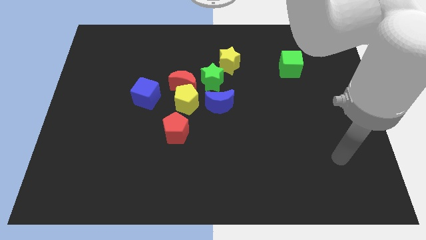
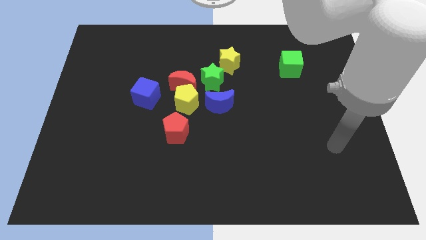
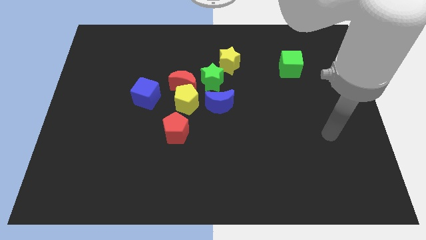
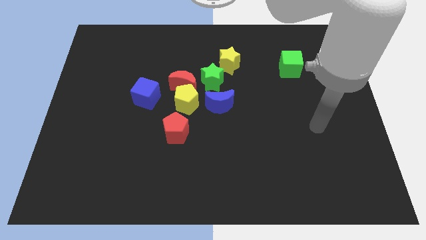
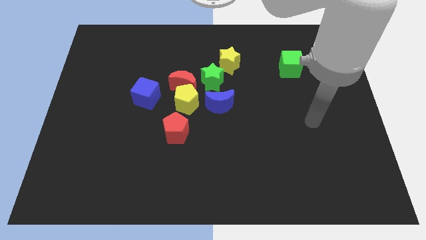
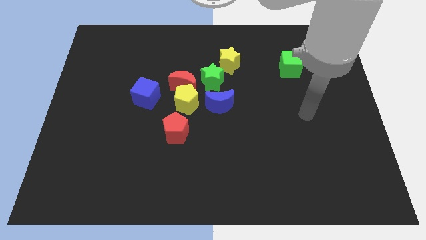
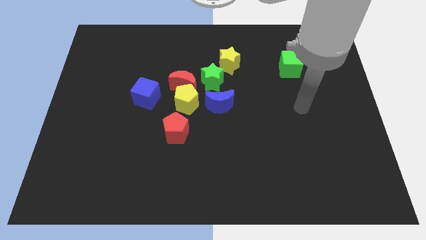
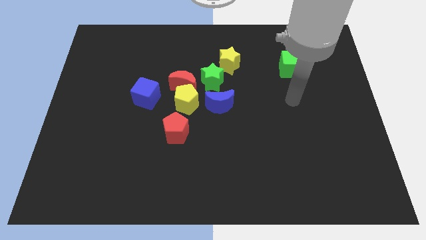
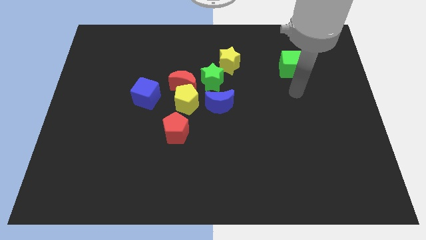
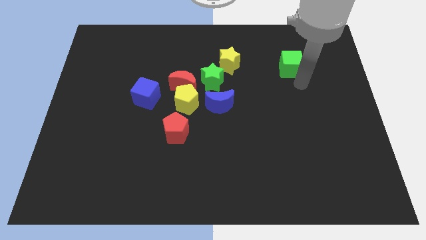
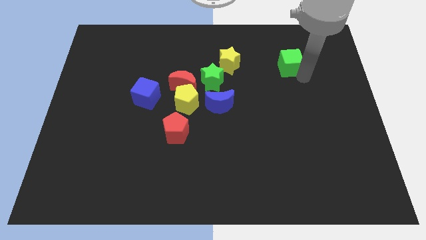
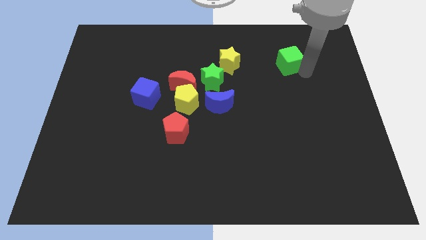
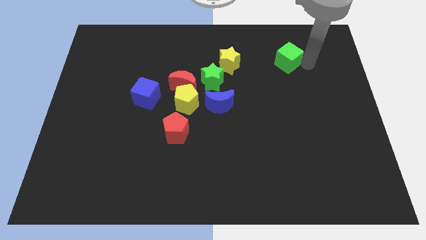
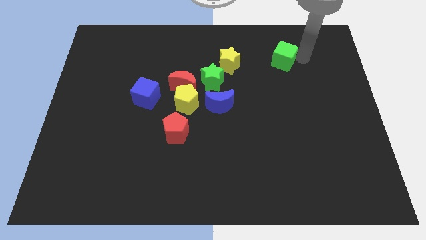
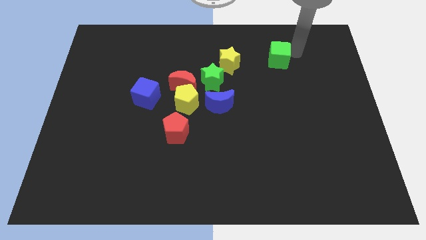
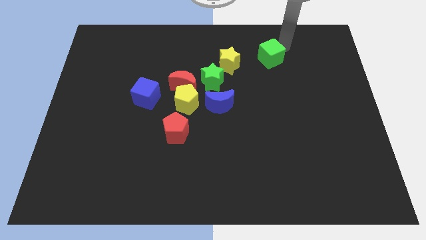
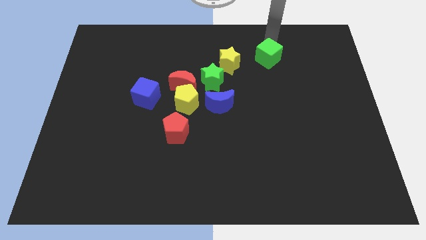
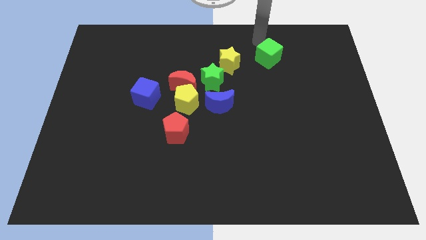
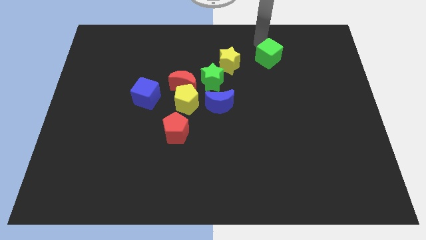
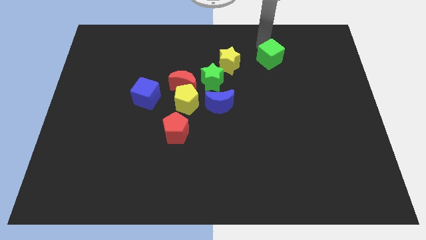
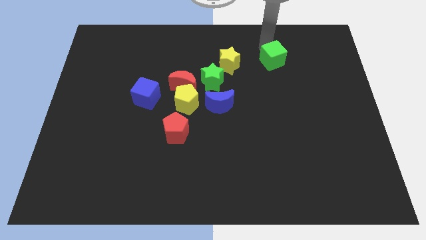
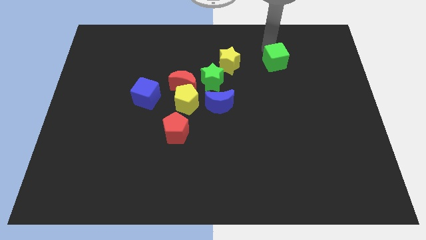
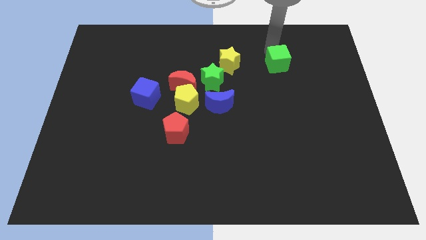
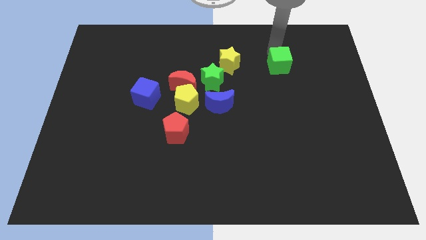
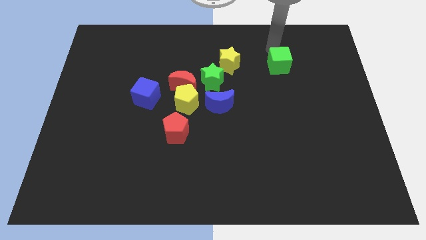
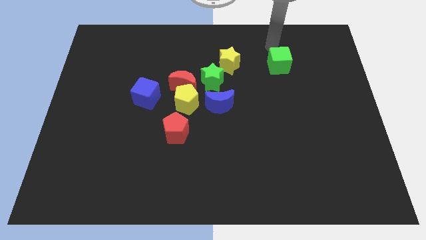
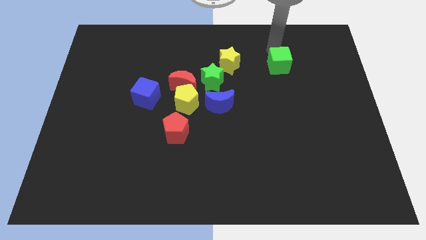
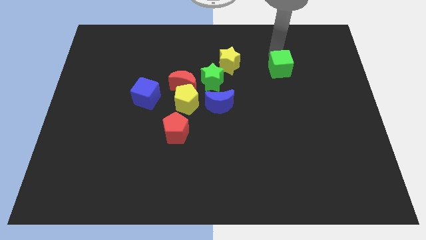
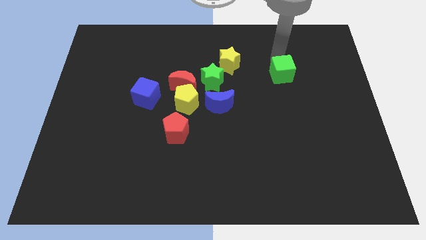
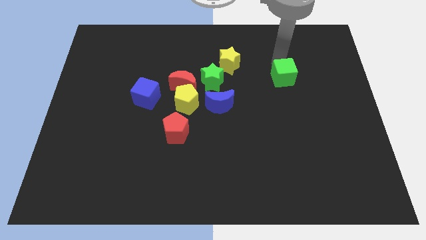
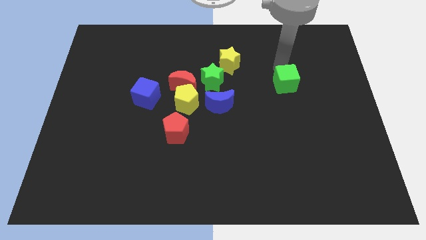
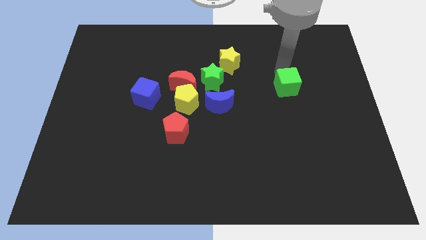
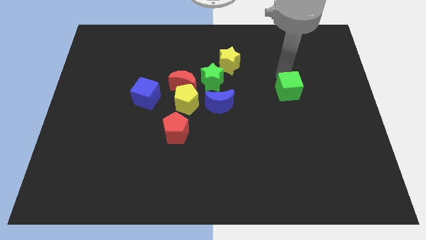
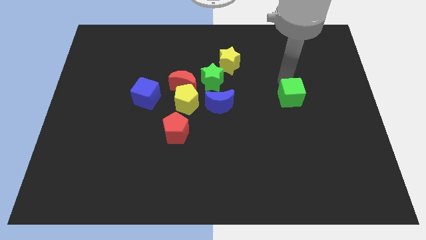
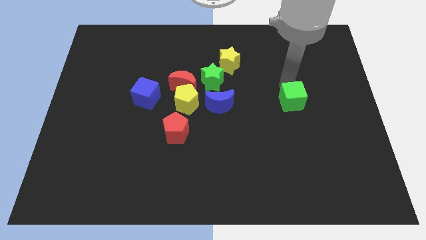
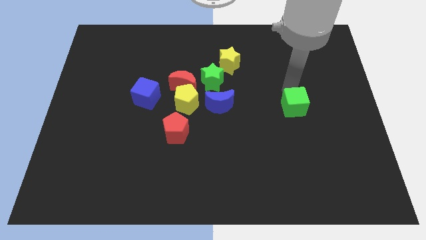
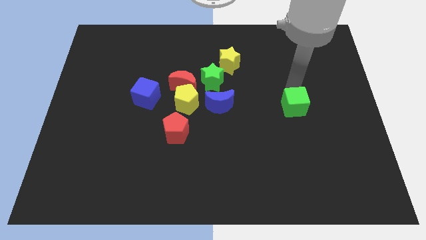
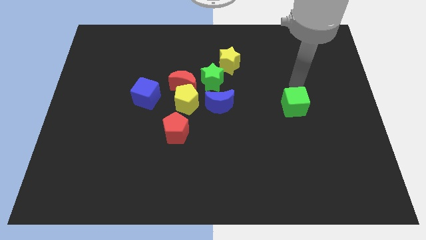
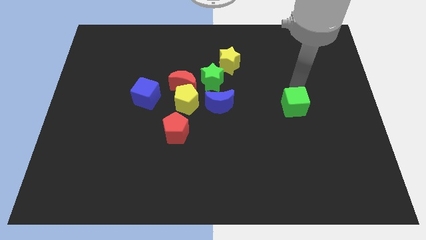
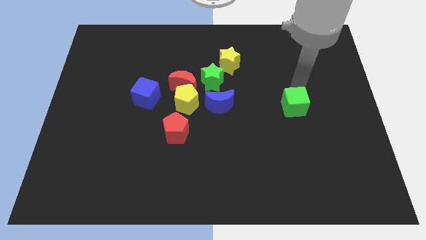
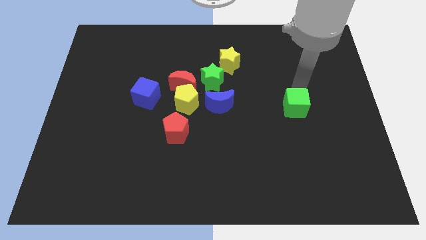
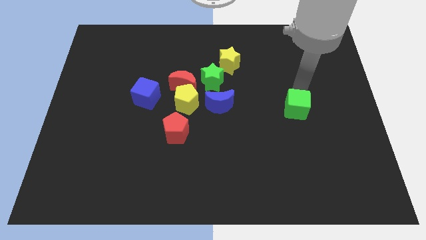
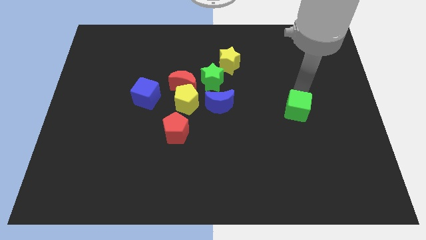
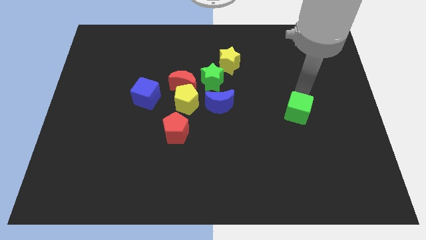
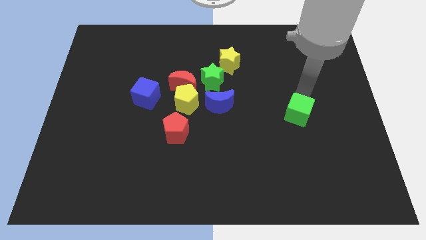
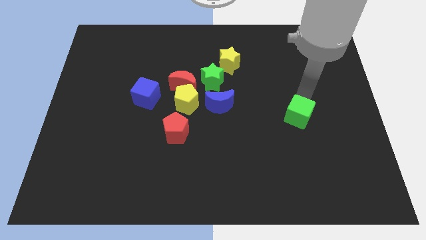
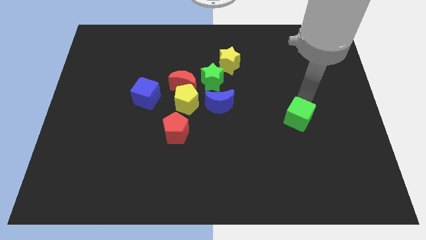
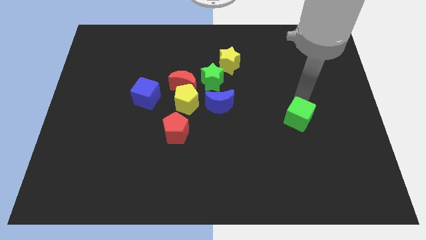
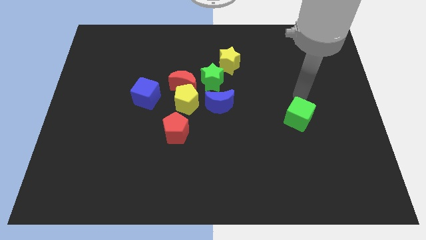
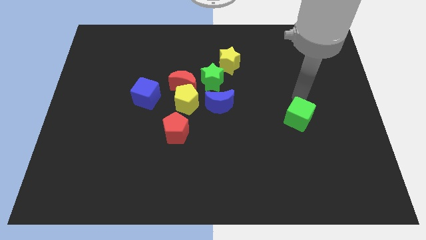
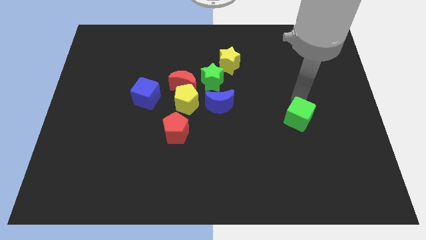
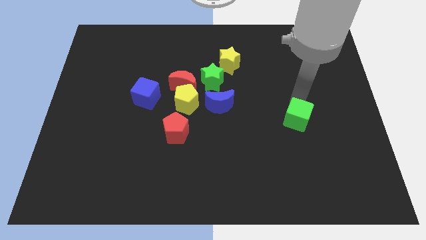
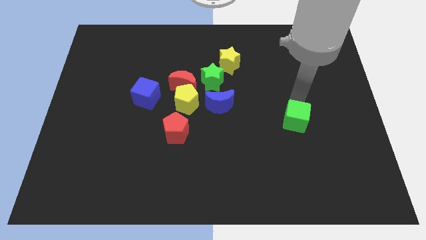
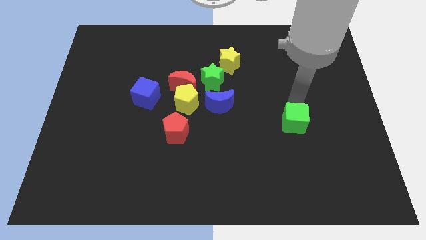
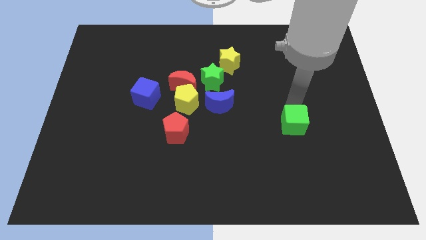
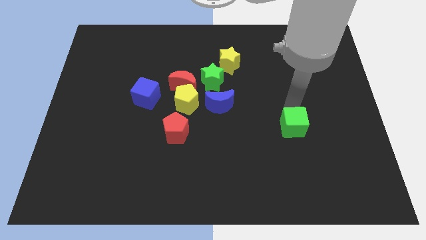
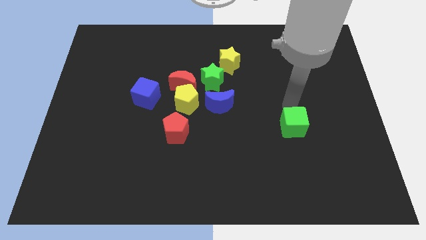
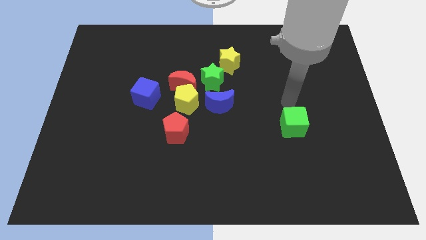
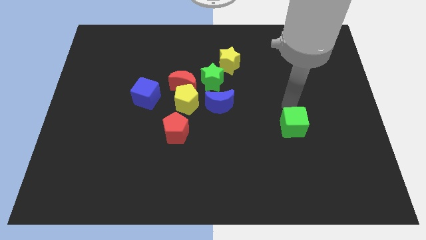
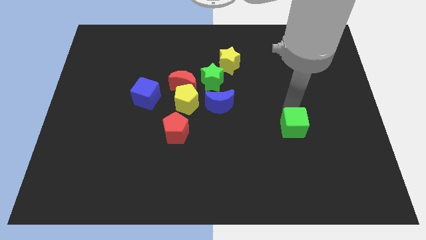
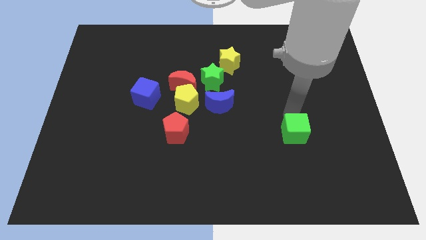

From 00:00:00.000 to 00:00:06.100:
move the green cube downwards

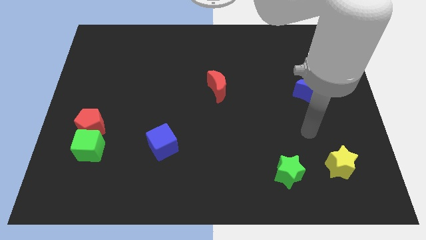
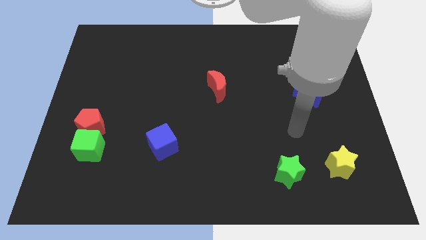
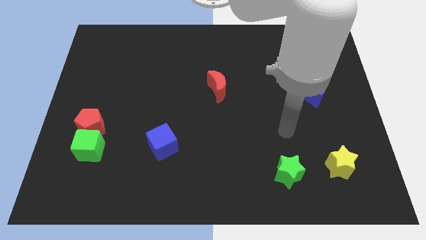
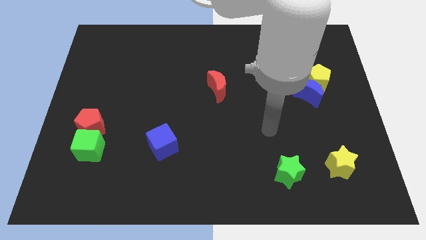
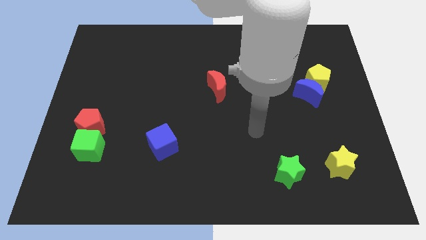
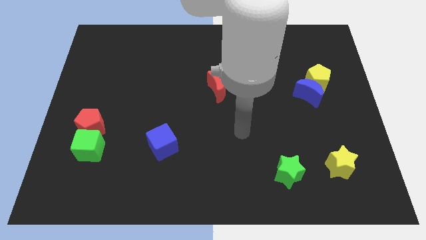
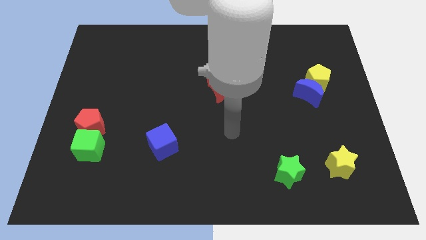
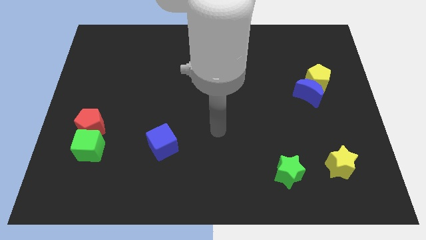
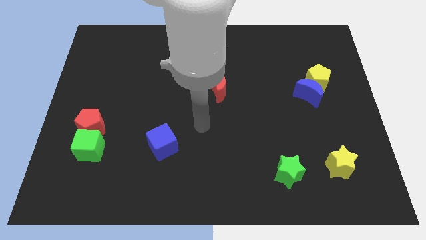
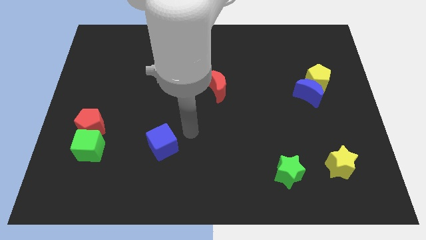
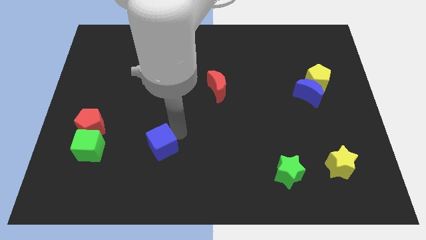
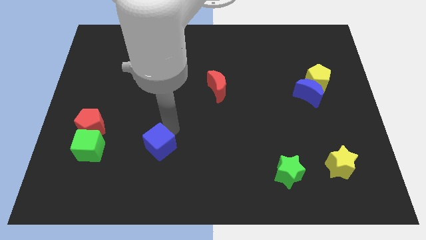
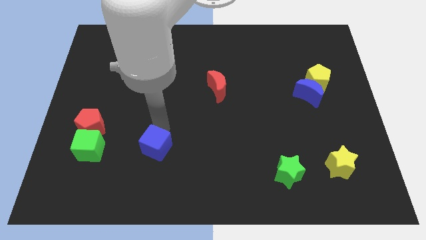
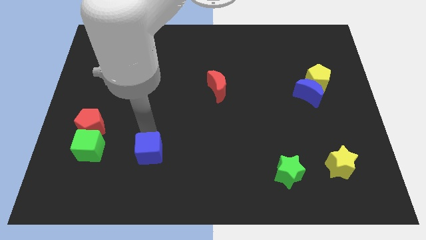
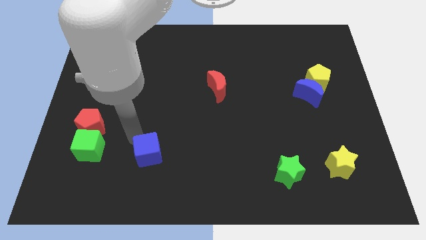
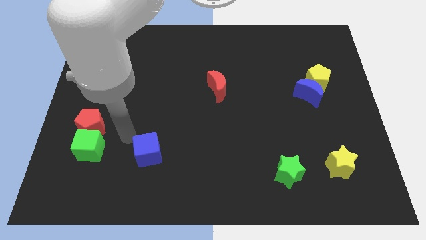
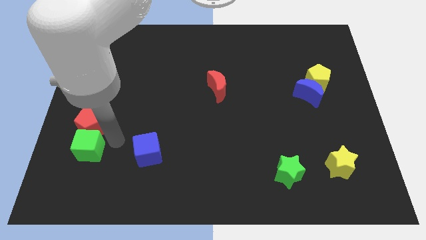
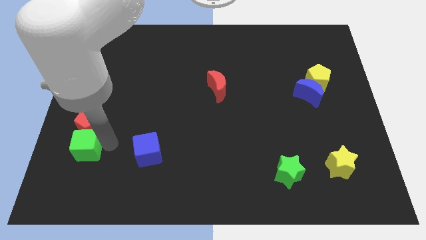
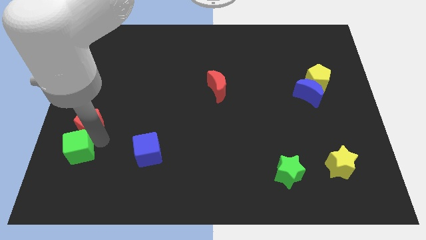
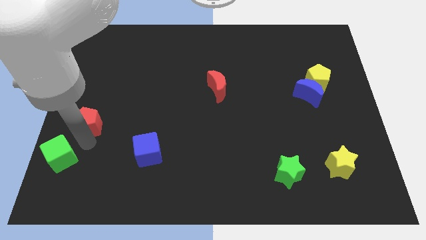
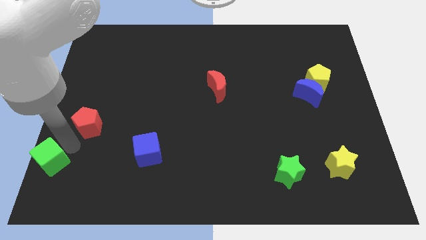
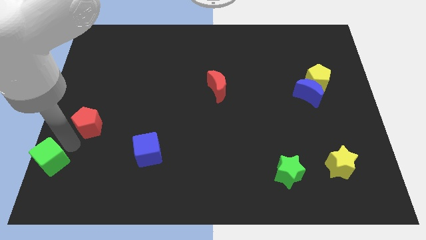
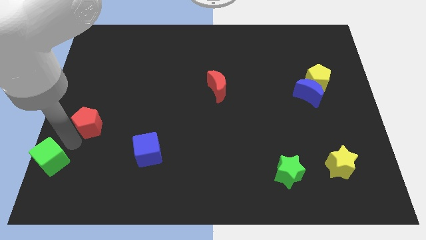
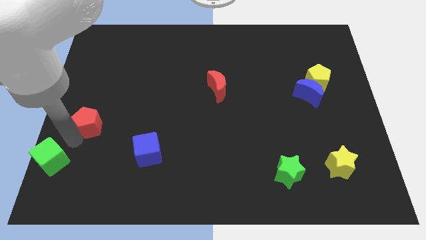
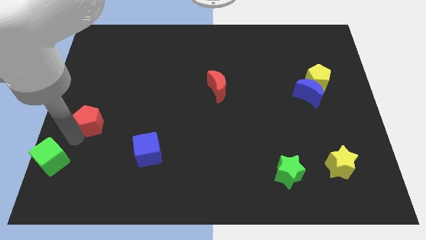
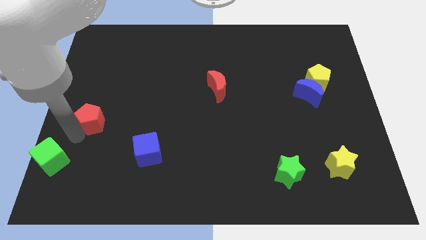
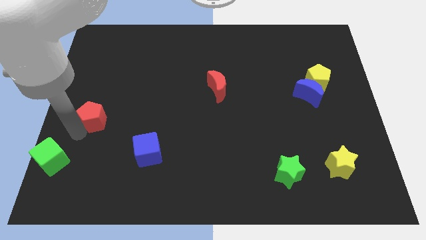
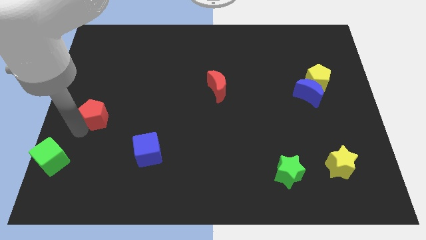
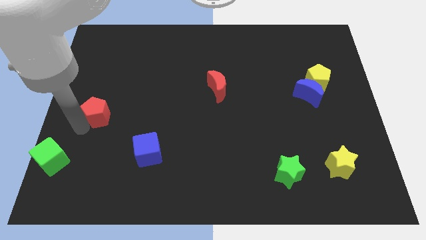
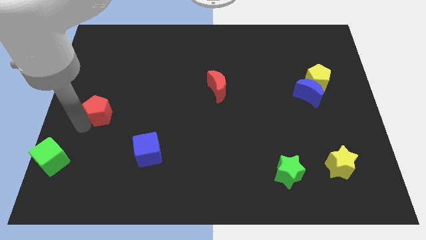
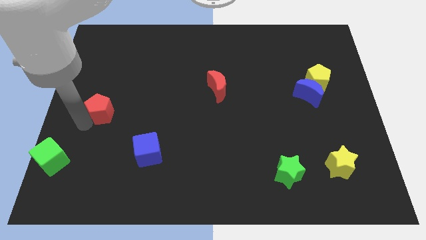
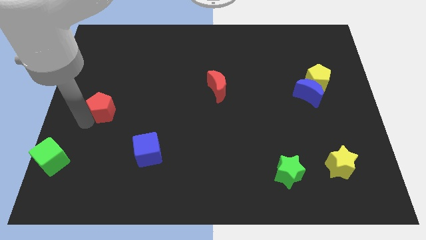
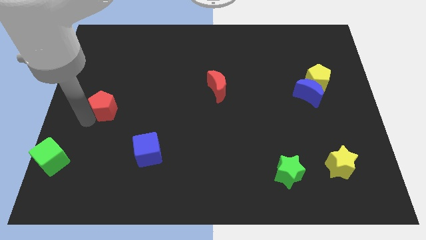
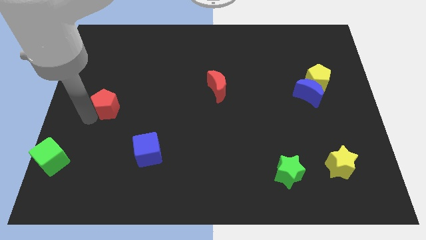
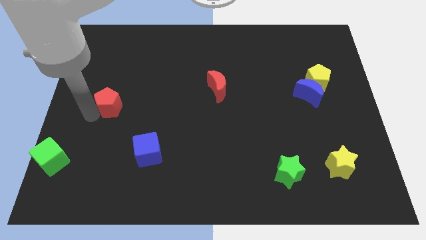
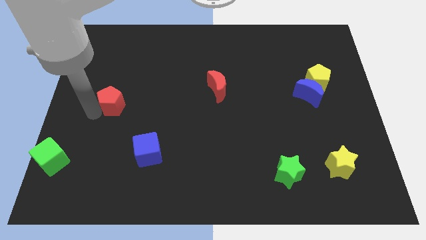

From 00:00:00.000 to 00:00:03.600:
move the red pentagon up and then right a little
